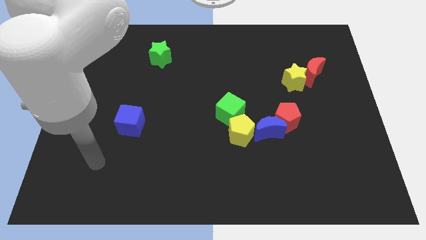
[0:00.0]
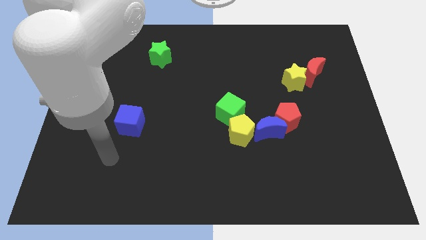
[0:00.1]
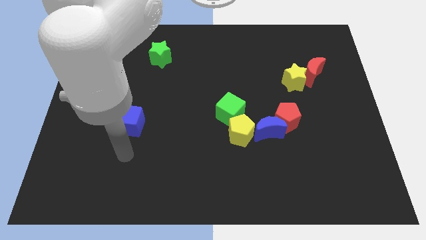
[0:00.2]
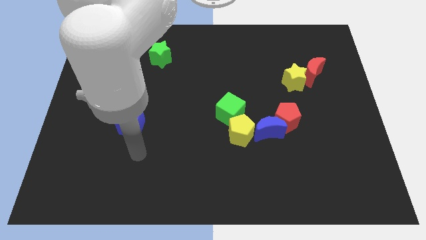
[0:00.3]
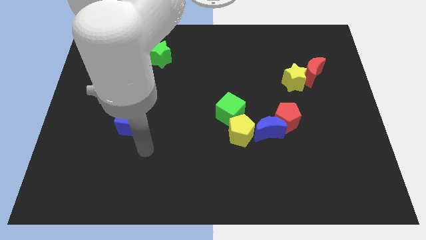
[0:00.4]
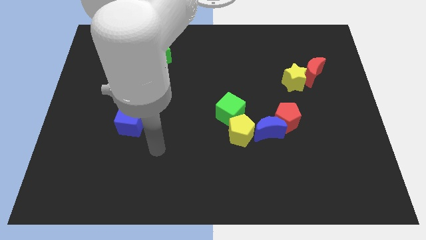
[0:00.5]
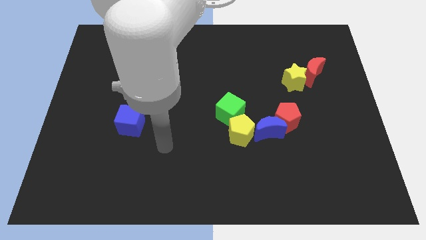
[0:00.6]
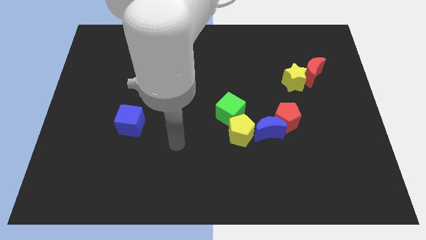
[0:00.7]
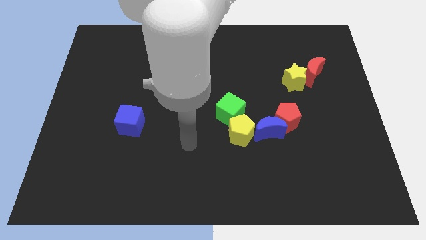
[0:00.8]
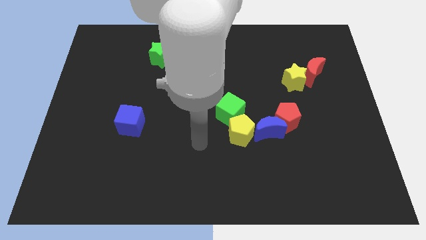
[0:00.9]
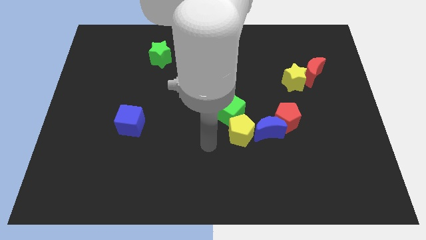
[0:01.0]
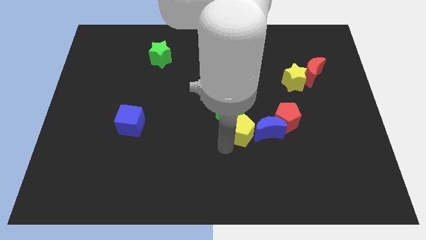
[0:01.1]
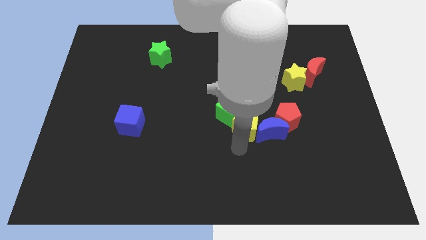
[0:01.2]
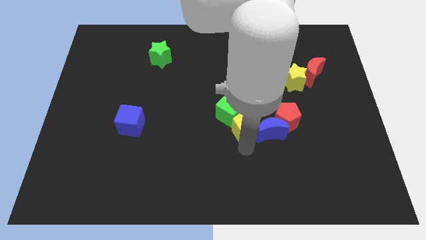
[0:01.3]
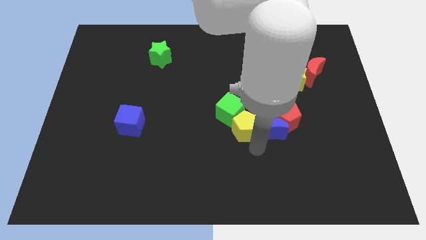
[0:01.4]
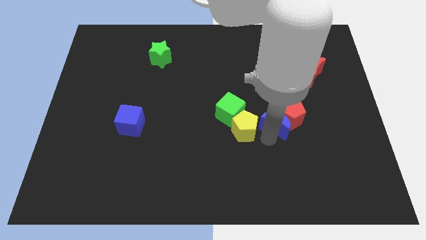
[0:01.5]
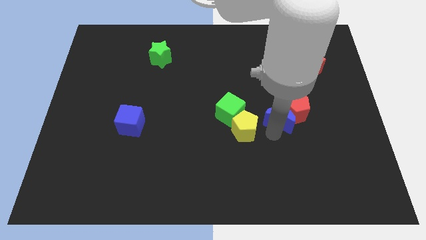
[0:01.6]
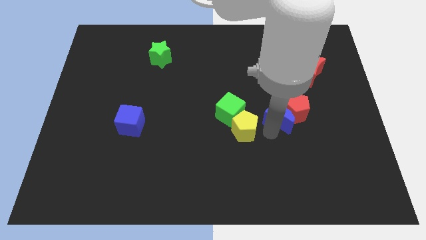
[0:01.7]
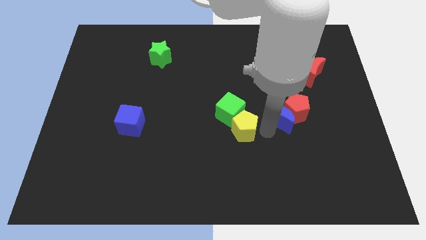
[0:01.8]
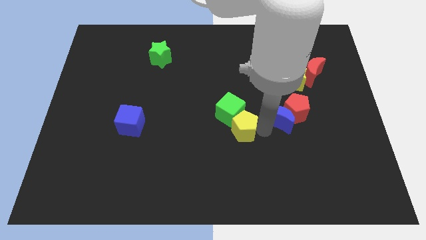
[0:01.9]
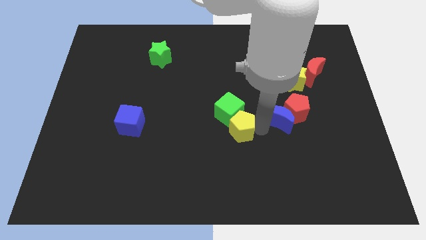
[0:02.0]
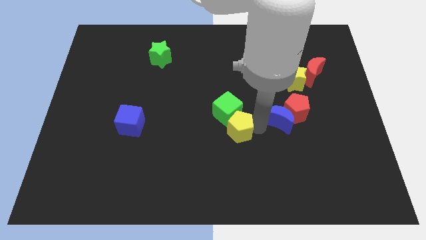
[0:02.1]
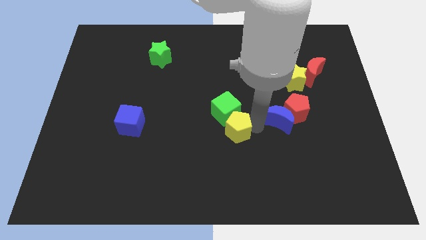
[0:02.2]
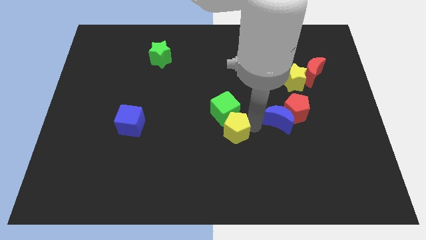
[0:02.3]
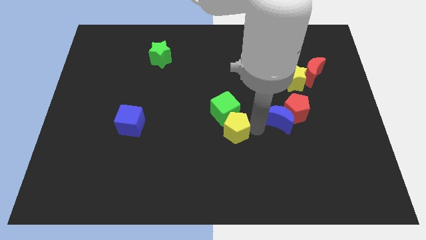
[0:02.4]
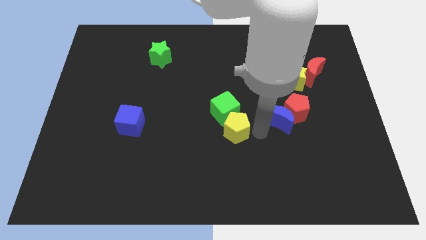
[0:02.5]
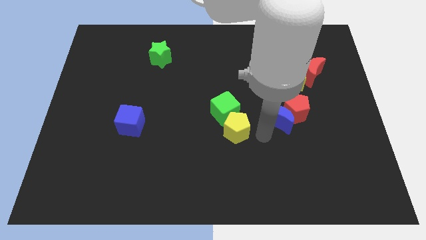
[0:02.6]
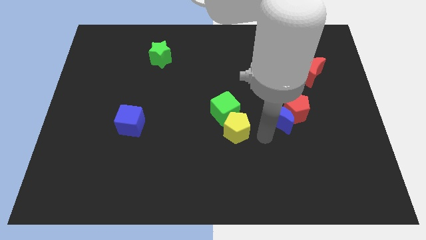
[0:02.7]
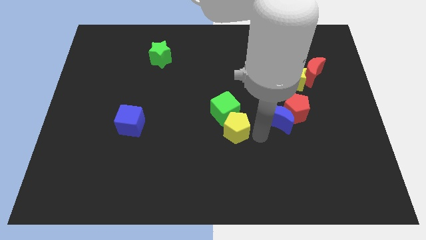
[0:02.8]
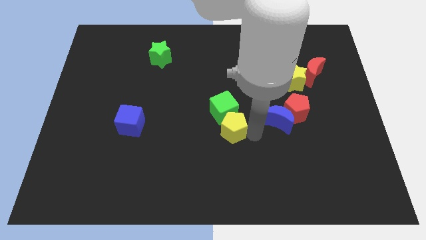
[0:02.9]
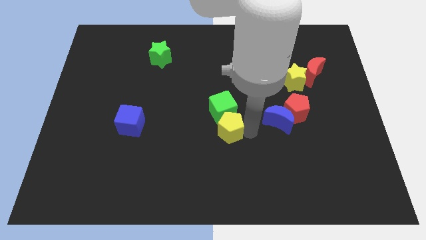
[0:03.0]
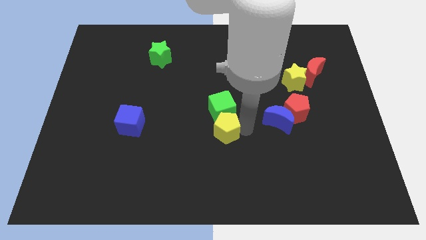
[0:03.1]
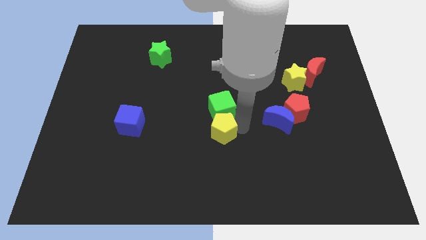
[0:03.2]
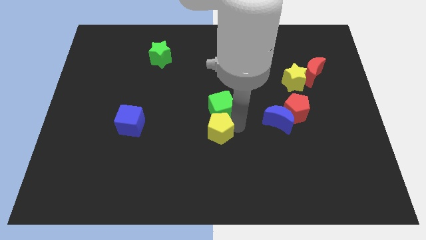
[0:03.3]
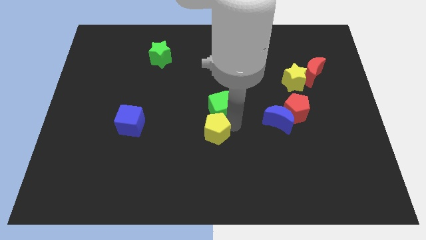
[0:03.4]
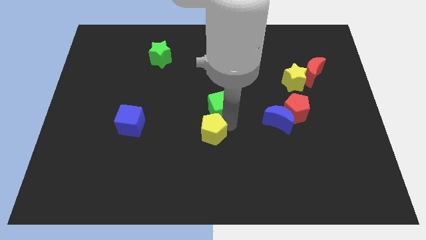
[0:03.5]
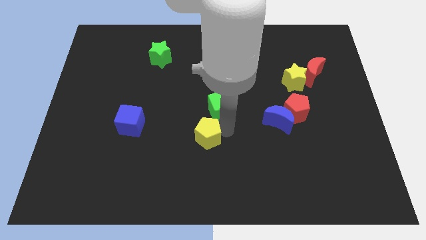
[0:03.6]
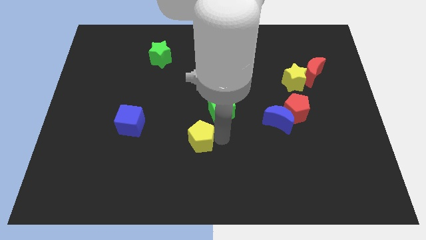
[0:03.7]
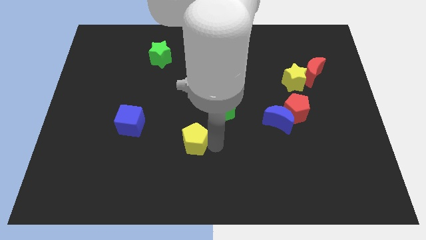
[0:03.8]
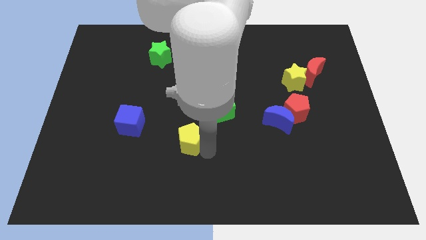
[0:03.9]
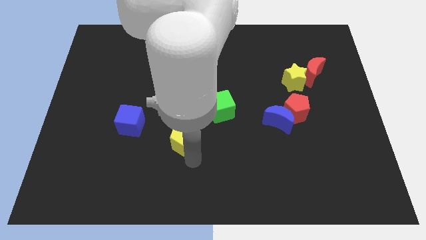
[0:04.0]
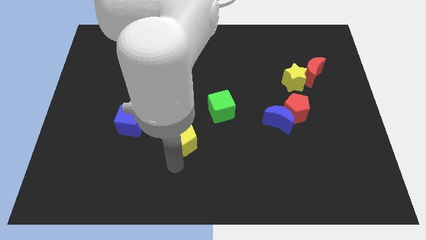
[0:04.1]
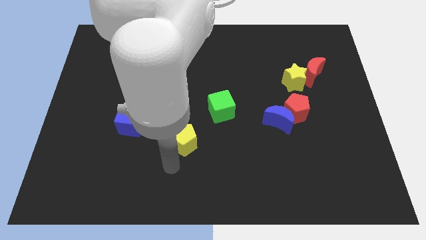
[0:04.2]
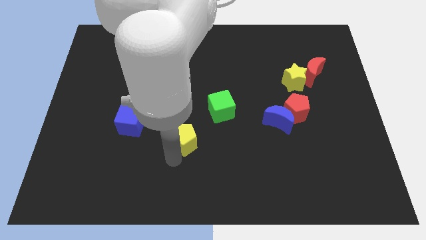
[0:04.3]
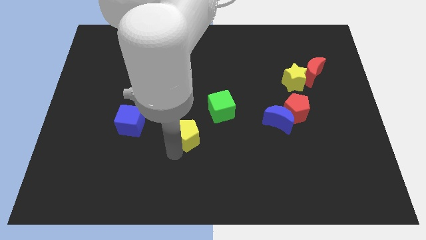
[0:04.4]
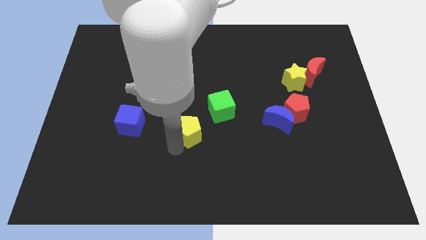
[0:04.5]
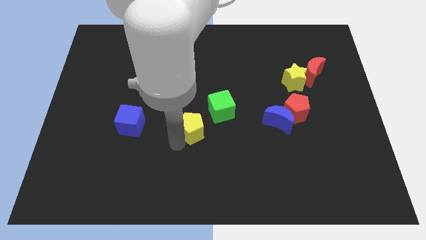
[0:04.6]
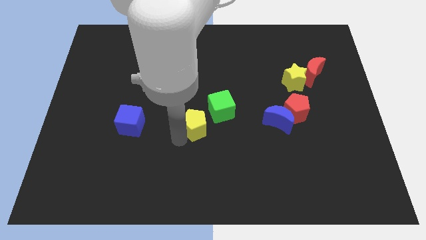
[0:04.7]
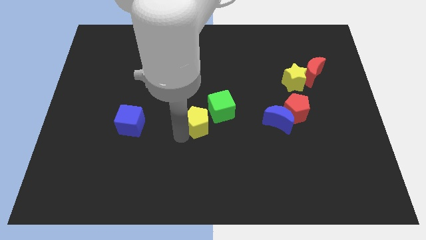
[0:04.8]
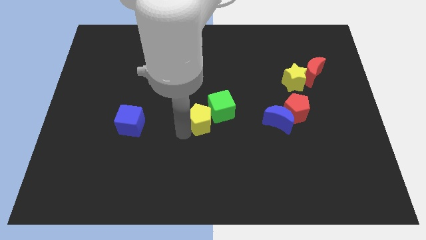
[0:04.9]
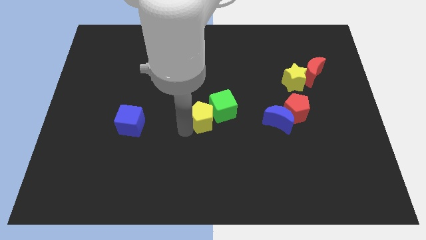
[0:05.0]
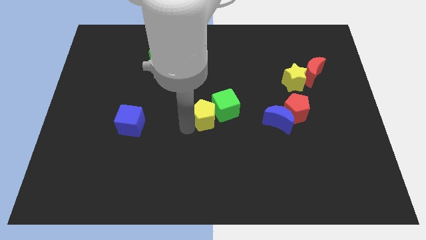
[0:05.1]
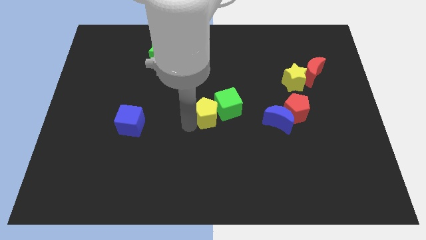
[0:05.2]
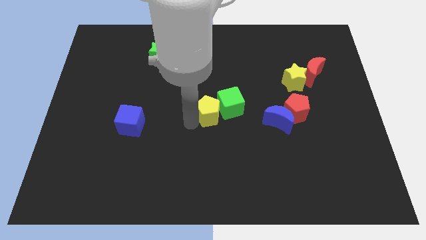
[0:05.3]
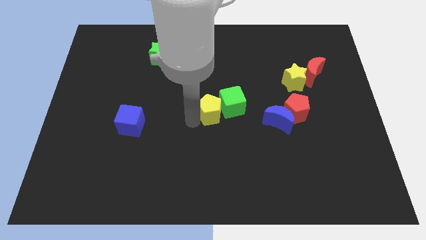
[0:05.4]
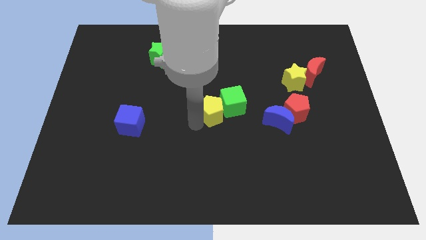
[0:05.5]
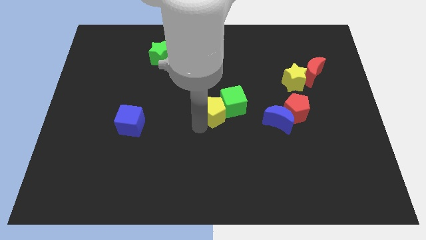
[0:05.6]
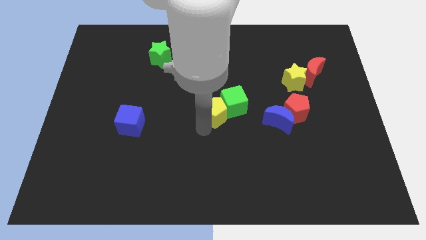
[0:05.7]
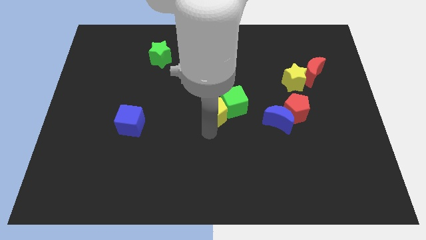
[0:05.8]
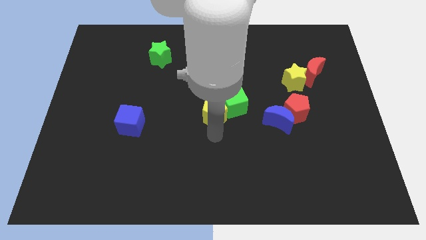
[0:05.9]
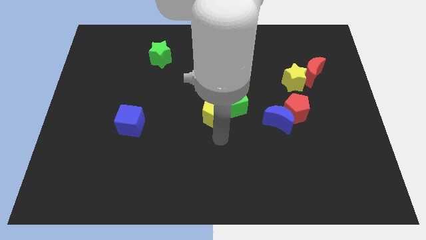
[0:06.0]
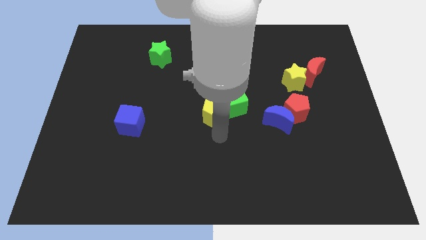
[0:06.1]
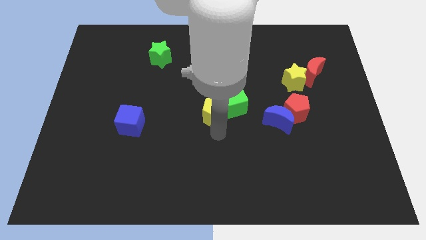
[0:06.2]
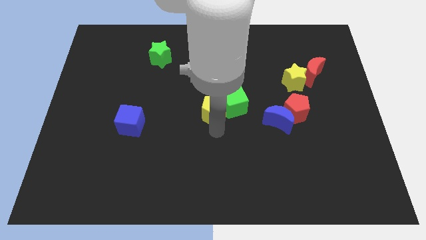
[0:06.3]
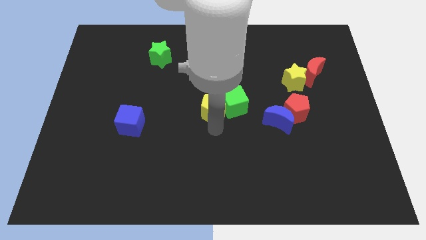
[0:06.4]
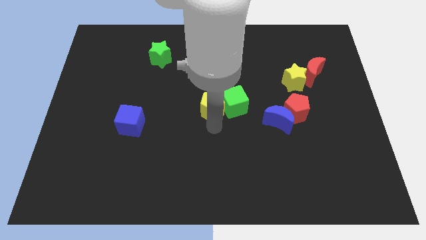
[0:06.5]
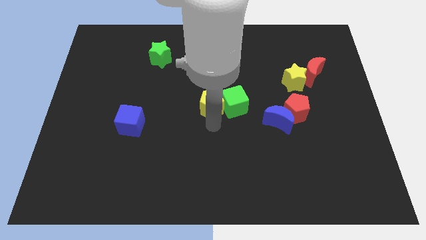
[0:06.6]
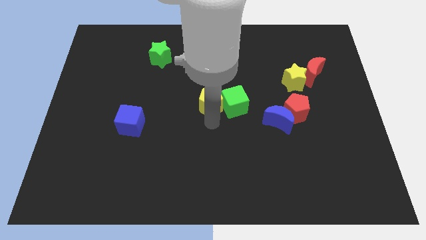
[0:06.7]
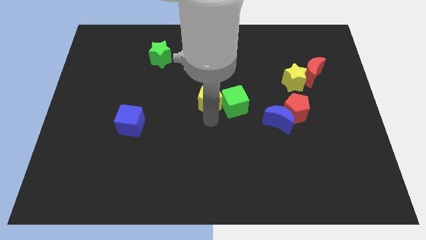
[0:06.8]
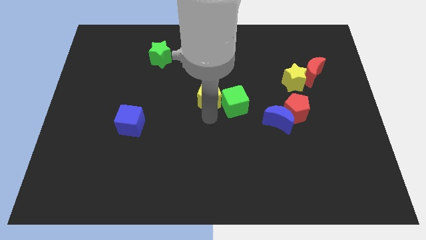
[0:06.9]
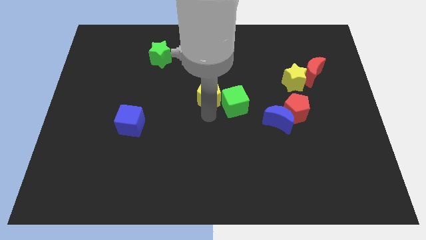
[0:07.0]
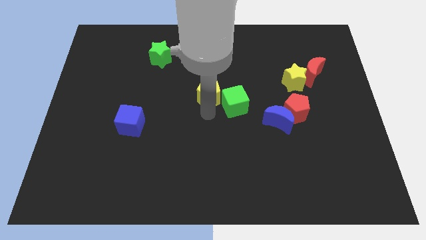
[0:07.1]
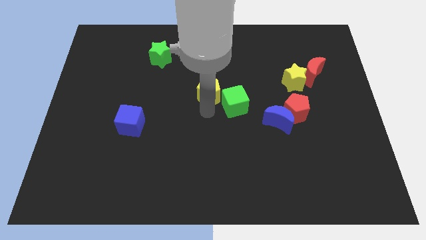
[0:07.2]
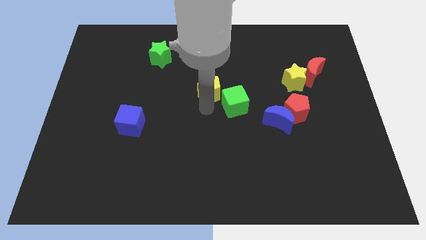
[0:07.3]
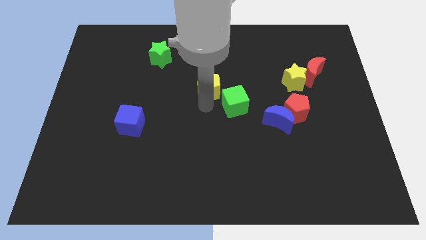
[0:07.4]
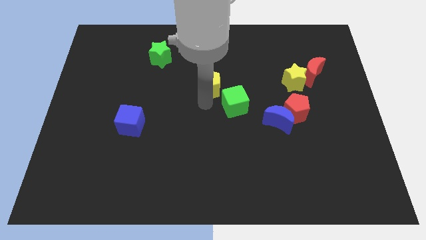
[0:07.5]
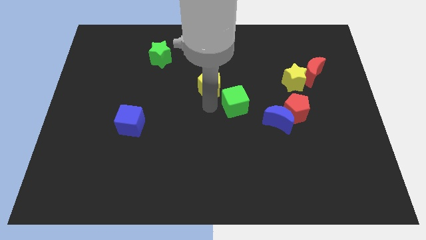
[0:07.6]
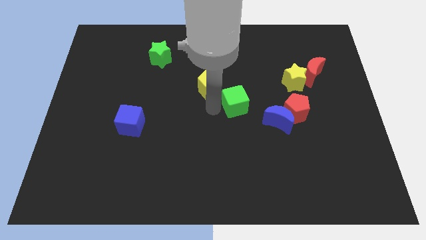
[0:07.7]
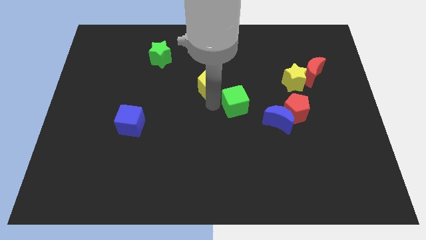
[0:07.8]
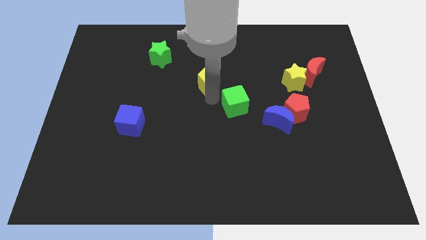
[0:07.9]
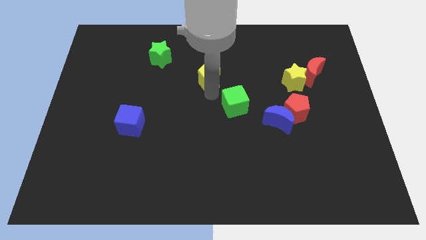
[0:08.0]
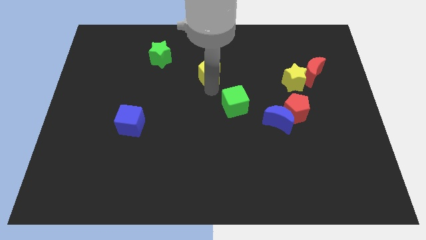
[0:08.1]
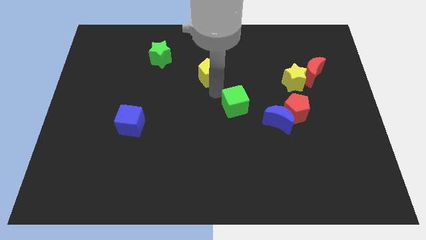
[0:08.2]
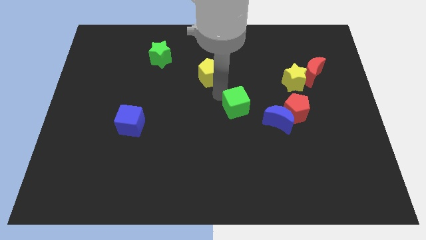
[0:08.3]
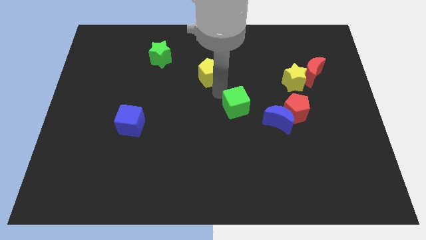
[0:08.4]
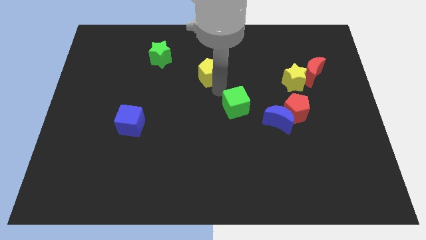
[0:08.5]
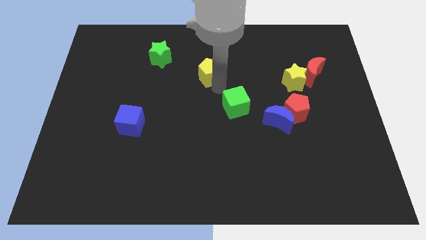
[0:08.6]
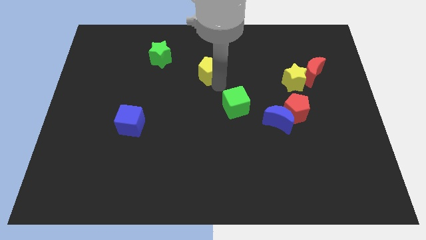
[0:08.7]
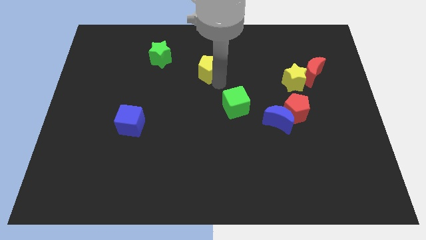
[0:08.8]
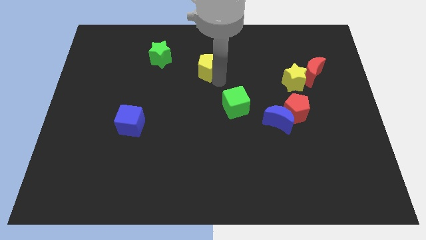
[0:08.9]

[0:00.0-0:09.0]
push the yellow pentagon right of the green star
